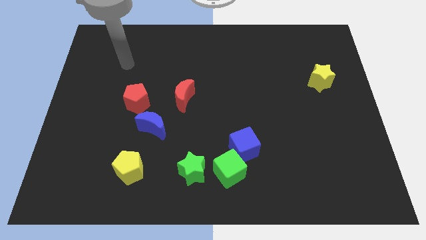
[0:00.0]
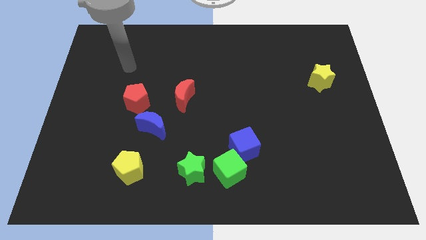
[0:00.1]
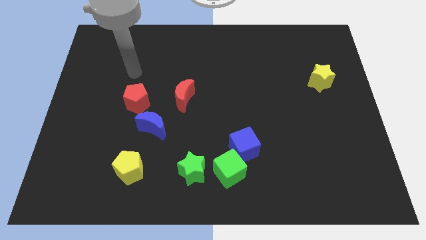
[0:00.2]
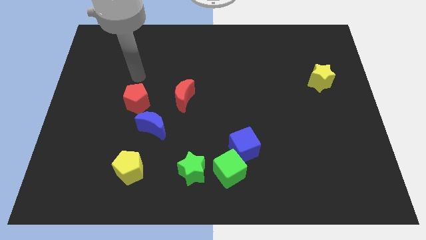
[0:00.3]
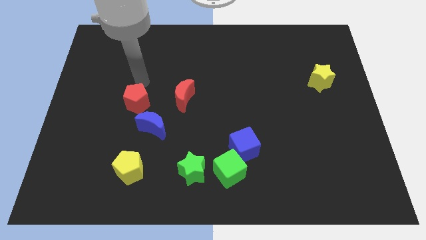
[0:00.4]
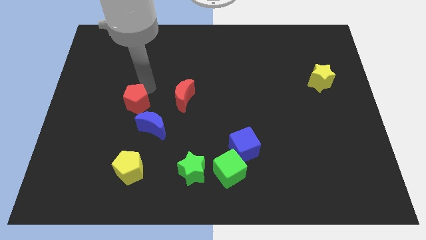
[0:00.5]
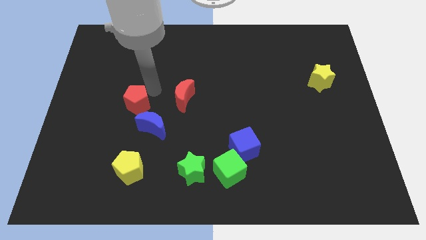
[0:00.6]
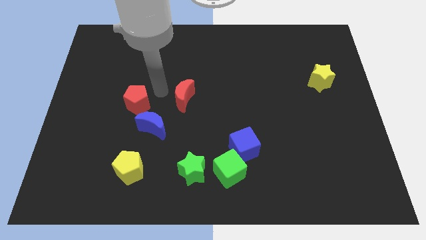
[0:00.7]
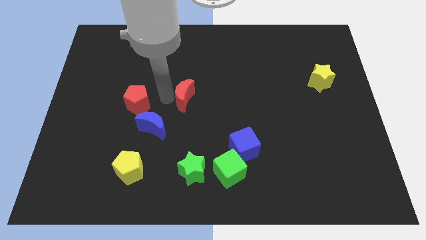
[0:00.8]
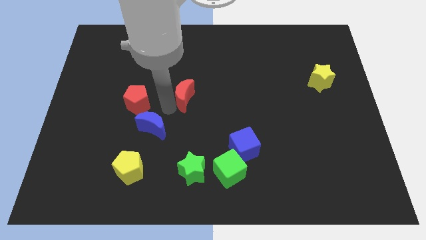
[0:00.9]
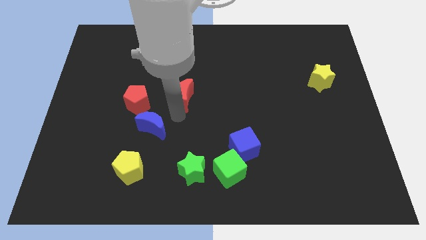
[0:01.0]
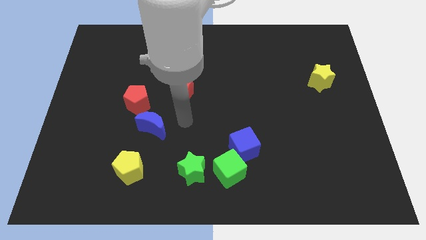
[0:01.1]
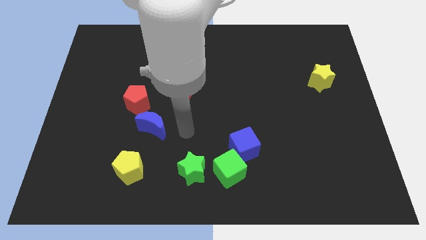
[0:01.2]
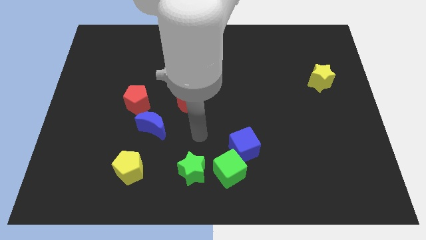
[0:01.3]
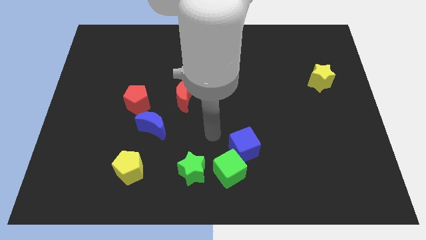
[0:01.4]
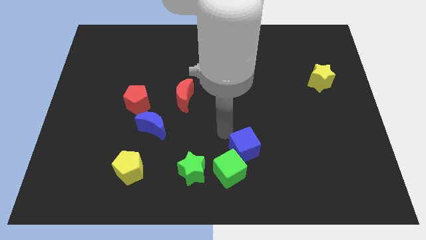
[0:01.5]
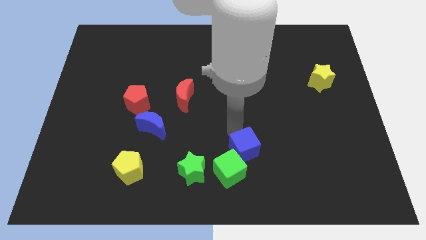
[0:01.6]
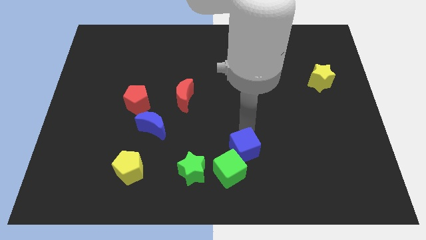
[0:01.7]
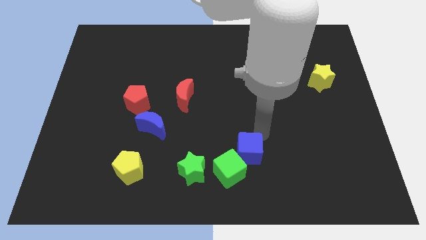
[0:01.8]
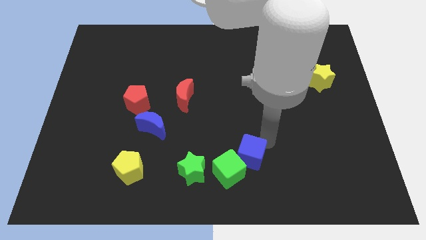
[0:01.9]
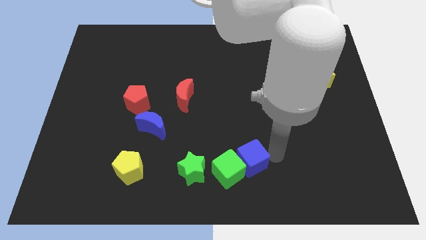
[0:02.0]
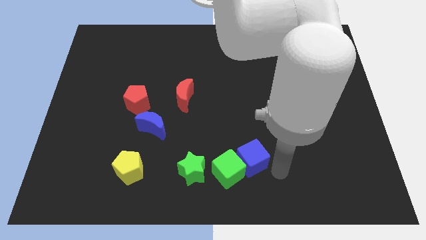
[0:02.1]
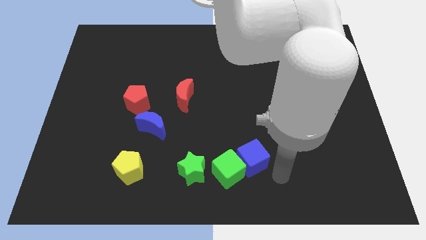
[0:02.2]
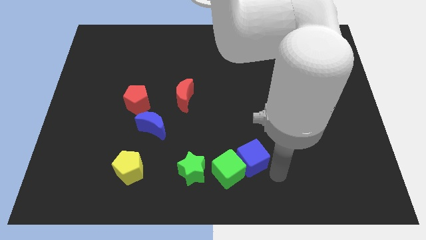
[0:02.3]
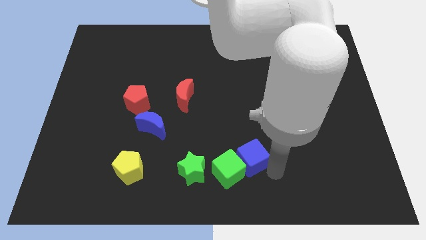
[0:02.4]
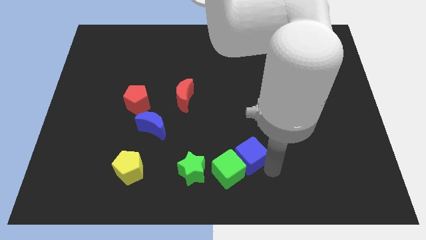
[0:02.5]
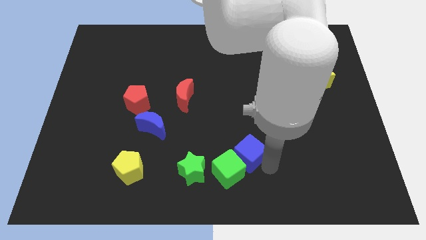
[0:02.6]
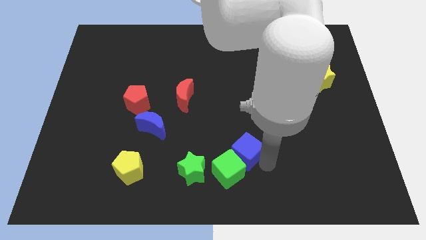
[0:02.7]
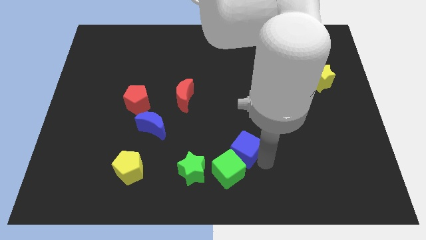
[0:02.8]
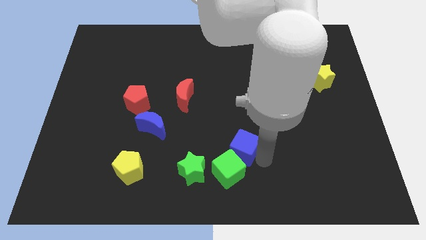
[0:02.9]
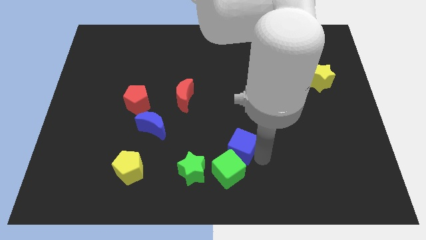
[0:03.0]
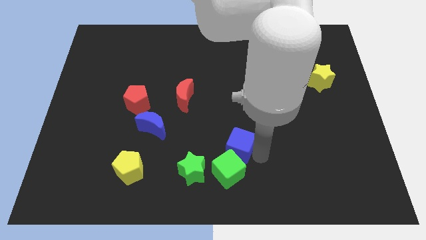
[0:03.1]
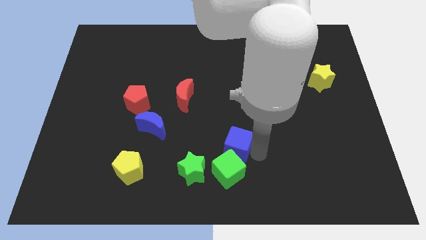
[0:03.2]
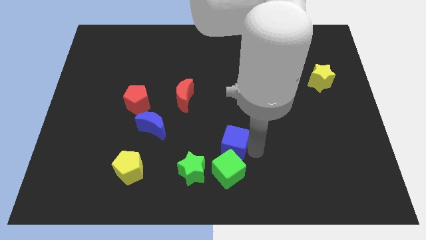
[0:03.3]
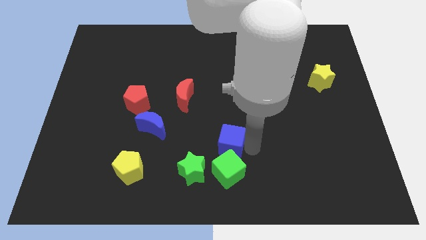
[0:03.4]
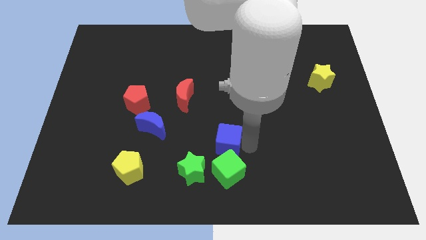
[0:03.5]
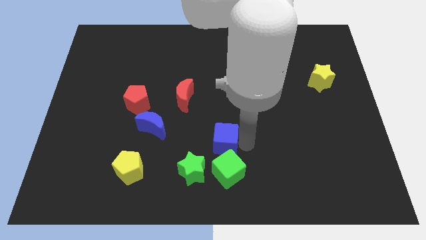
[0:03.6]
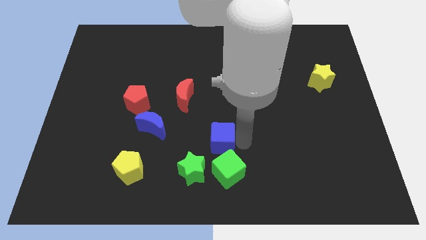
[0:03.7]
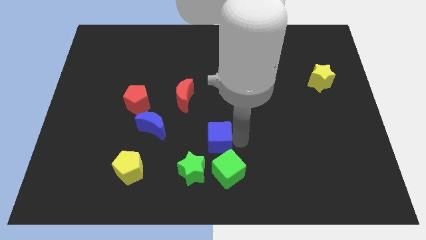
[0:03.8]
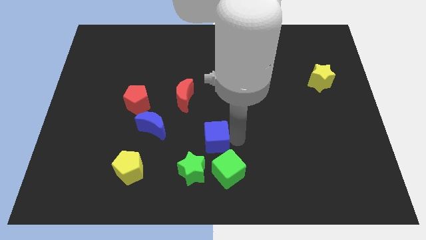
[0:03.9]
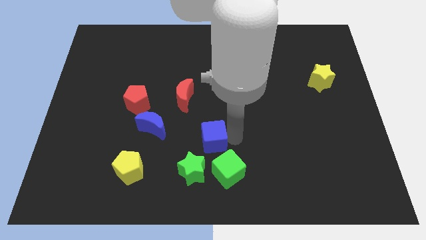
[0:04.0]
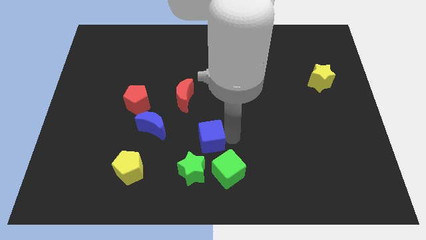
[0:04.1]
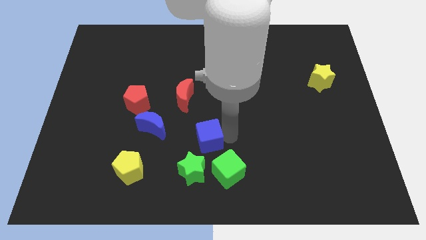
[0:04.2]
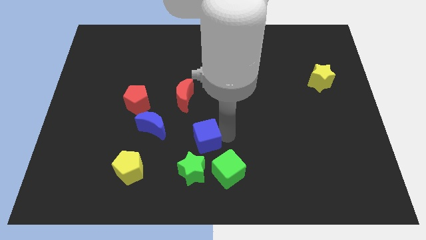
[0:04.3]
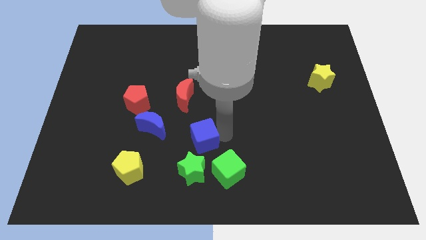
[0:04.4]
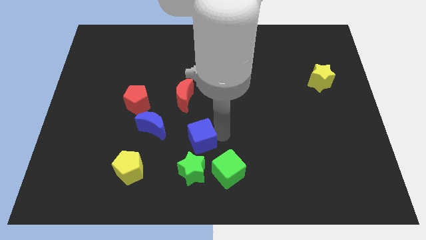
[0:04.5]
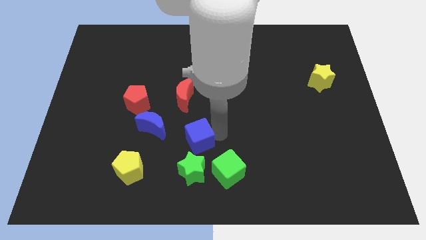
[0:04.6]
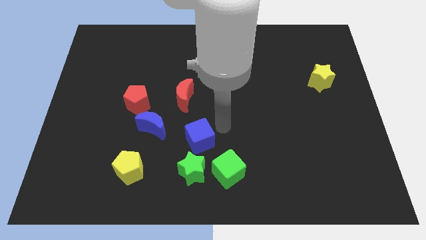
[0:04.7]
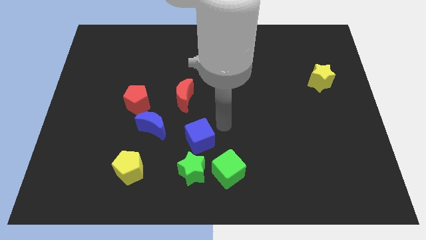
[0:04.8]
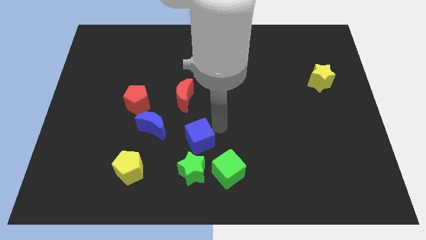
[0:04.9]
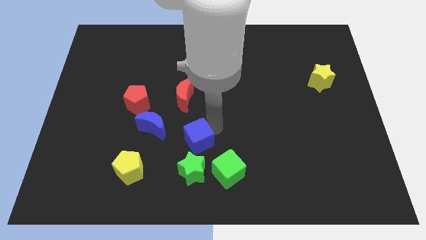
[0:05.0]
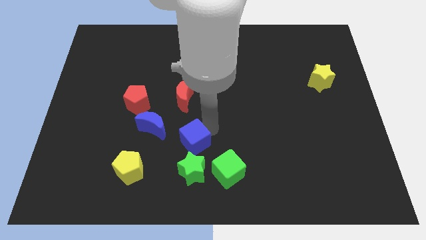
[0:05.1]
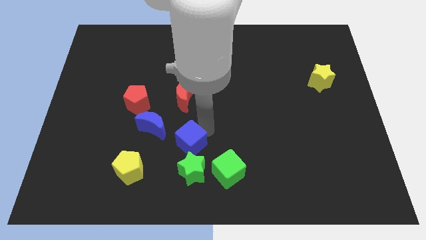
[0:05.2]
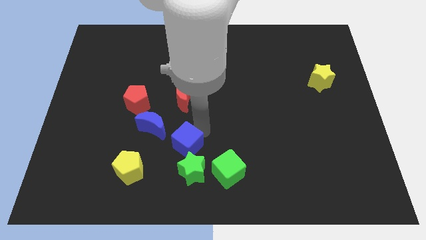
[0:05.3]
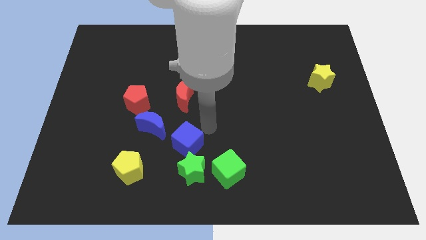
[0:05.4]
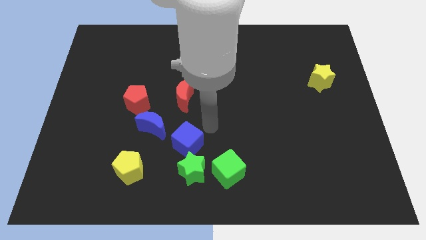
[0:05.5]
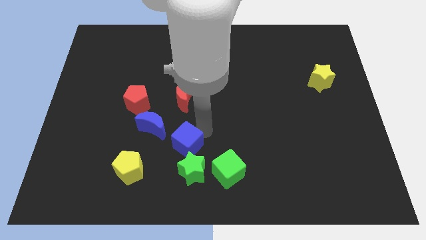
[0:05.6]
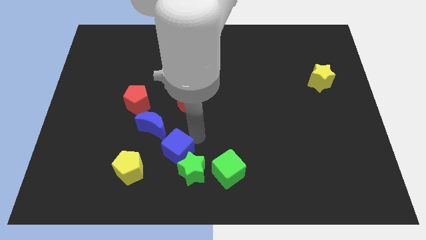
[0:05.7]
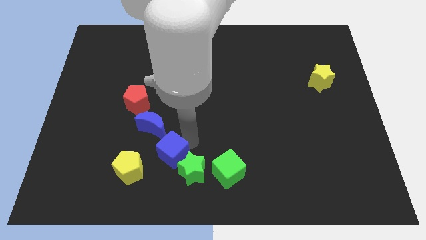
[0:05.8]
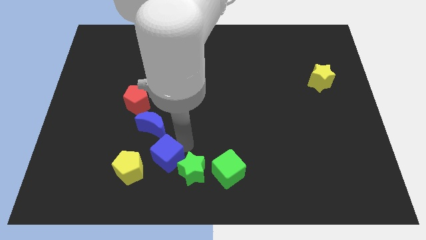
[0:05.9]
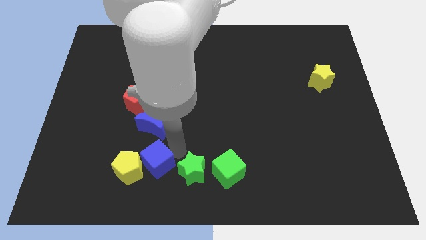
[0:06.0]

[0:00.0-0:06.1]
slide the blue cube next to the yellow pentagon

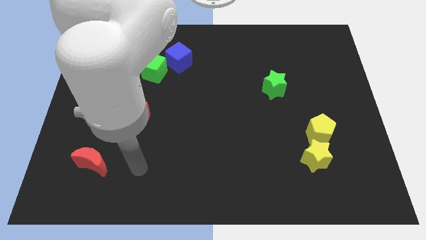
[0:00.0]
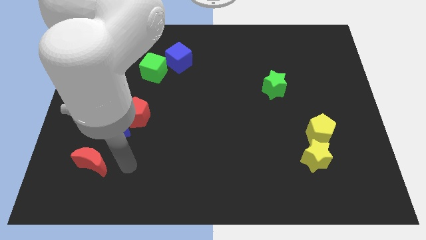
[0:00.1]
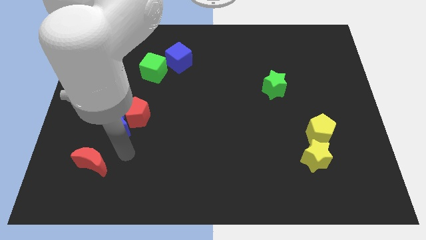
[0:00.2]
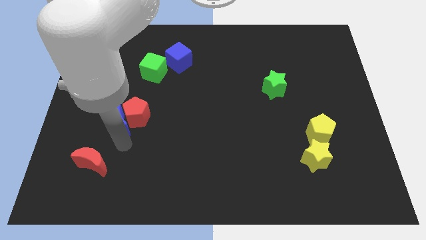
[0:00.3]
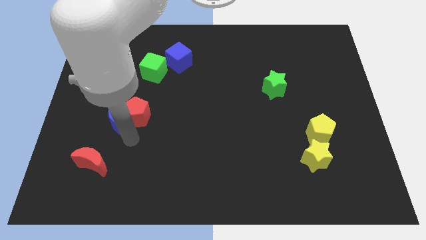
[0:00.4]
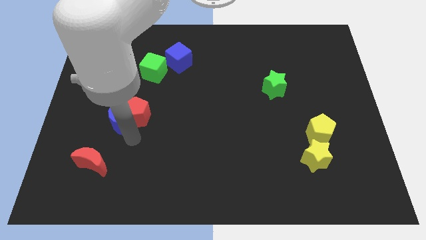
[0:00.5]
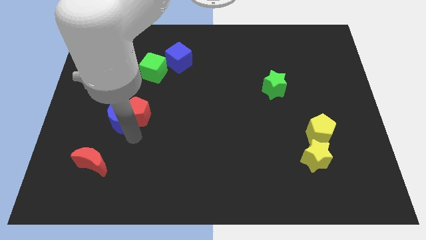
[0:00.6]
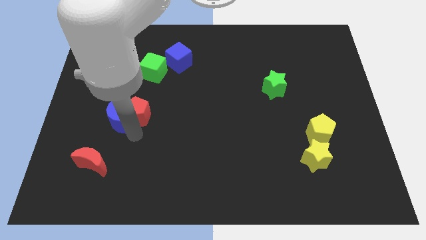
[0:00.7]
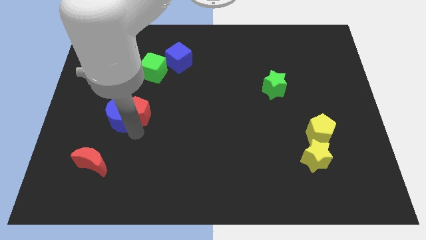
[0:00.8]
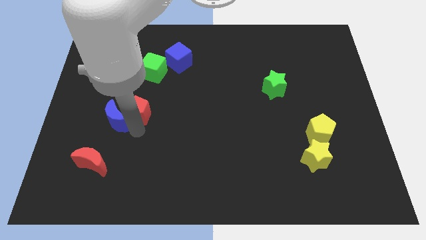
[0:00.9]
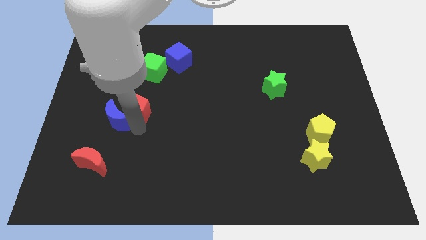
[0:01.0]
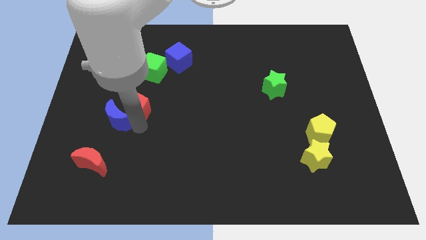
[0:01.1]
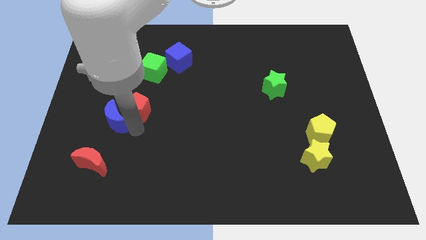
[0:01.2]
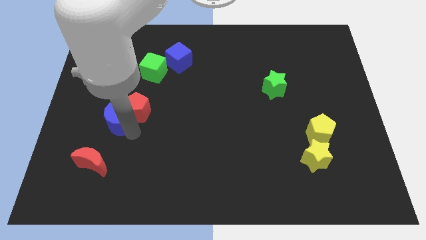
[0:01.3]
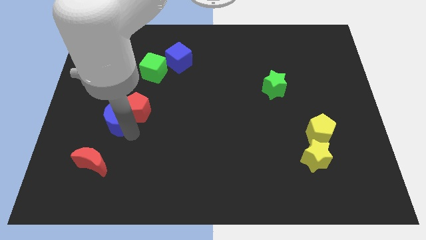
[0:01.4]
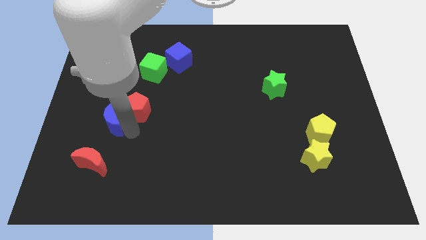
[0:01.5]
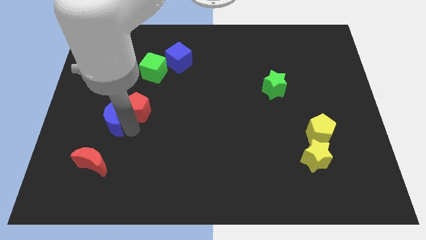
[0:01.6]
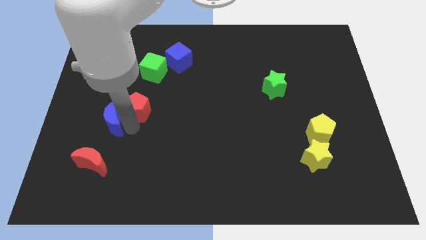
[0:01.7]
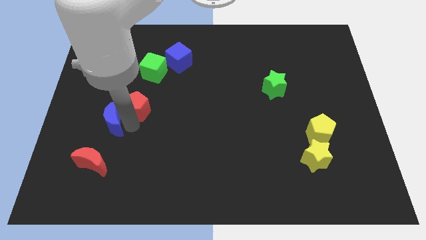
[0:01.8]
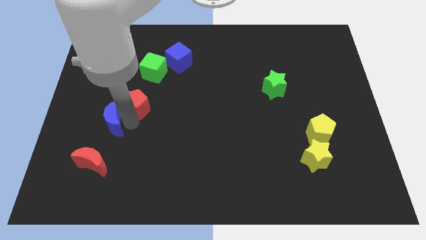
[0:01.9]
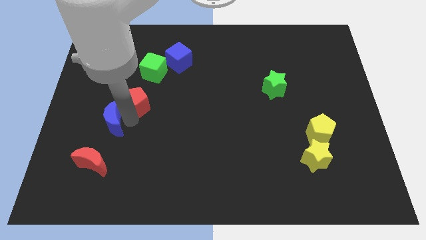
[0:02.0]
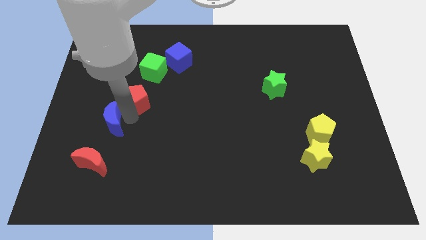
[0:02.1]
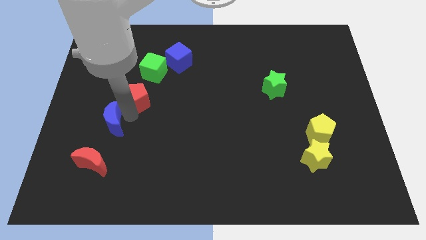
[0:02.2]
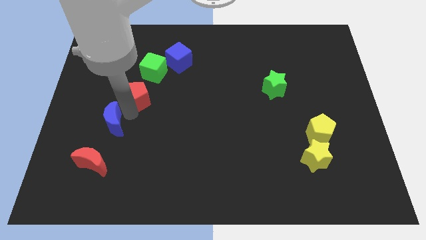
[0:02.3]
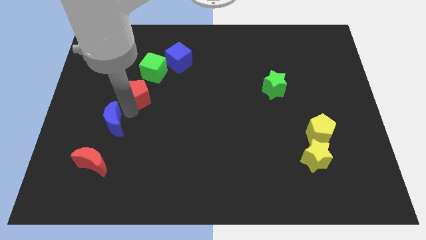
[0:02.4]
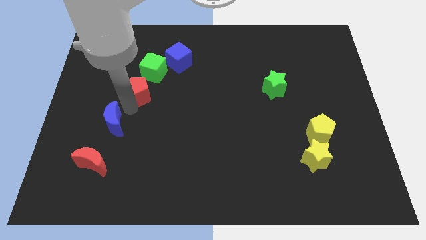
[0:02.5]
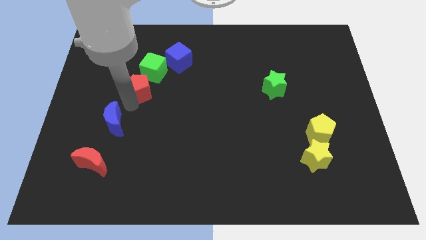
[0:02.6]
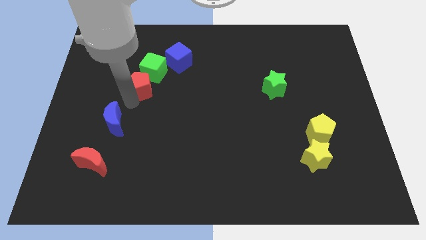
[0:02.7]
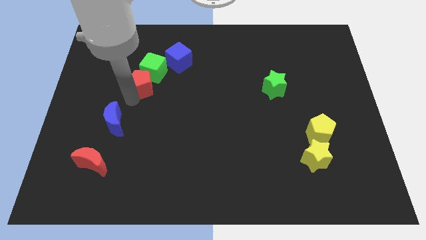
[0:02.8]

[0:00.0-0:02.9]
slide the red pentagon next to the green cube
